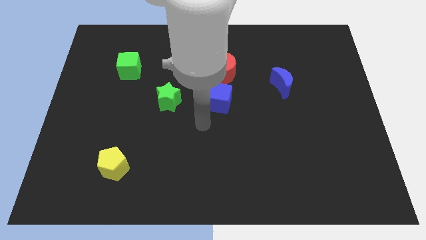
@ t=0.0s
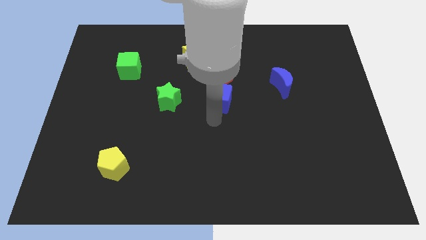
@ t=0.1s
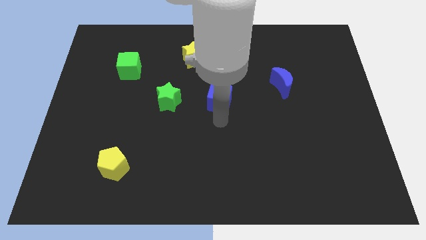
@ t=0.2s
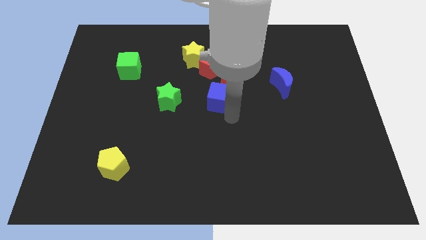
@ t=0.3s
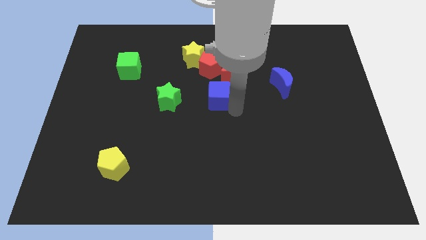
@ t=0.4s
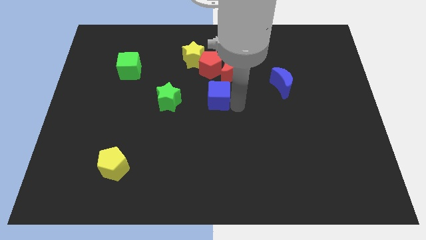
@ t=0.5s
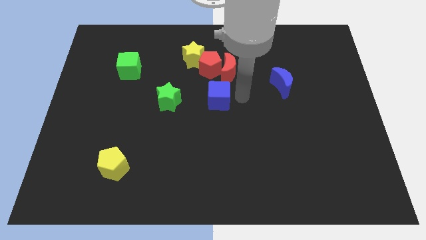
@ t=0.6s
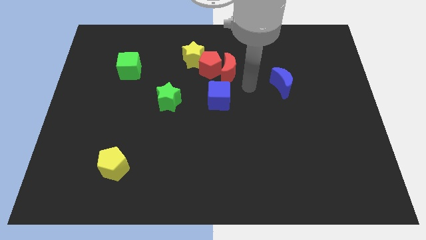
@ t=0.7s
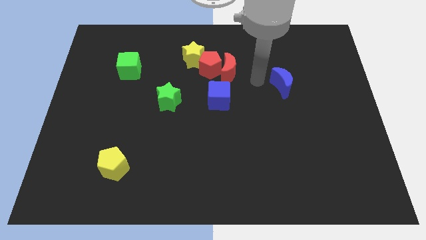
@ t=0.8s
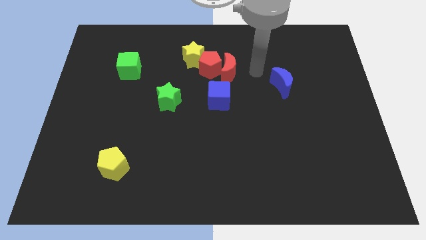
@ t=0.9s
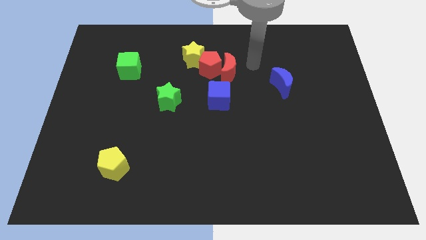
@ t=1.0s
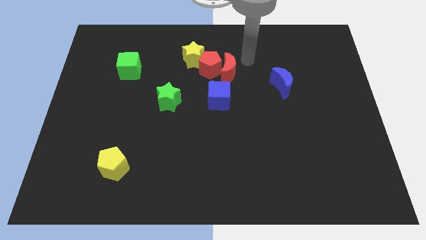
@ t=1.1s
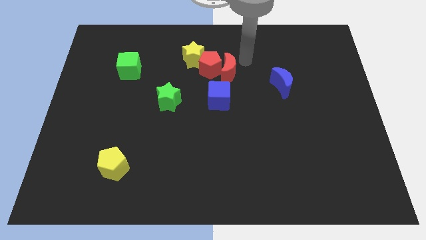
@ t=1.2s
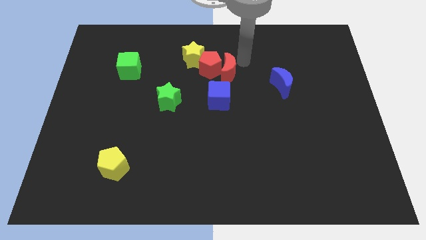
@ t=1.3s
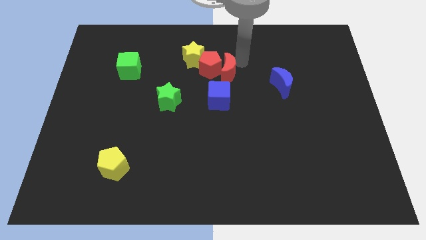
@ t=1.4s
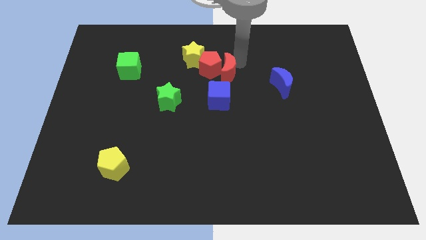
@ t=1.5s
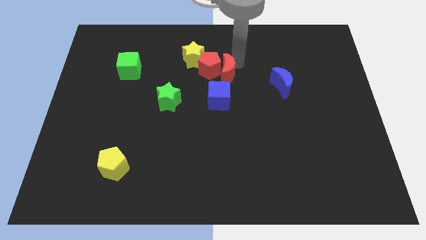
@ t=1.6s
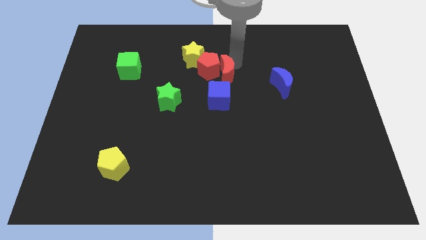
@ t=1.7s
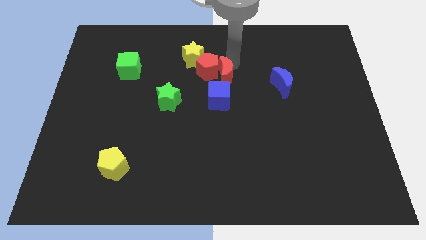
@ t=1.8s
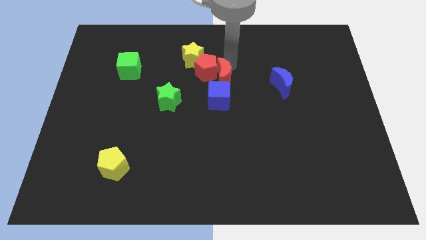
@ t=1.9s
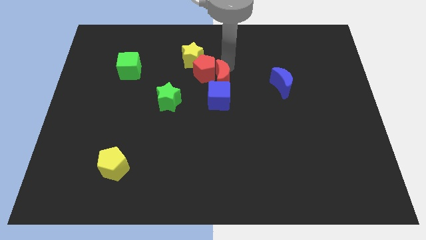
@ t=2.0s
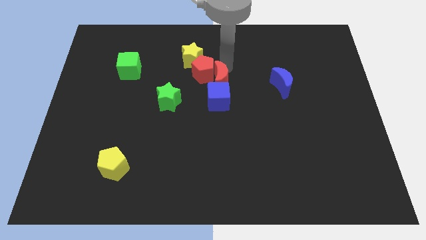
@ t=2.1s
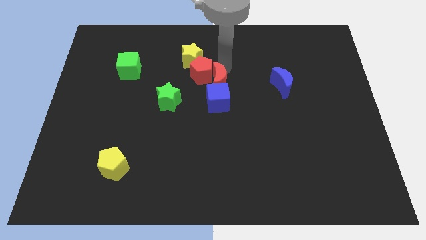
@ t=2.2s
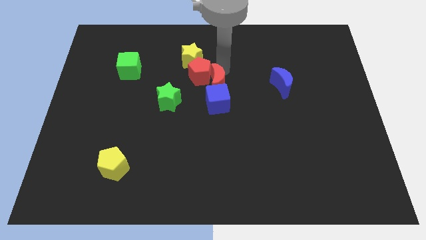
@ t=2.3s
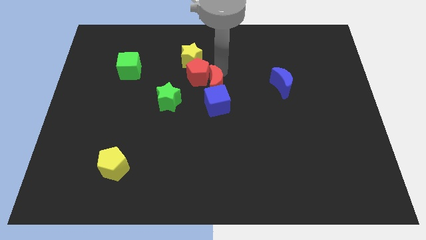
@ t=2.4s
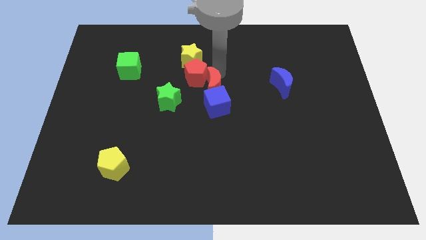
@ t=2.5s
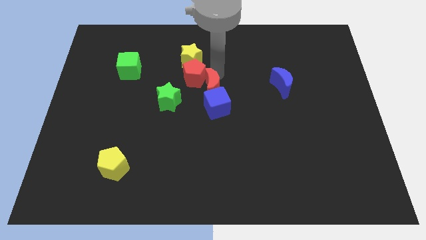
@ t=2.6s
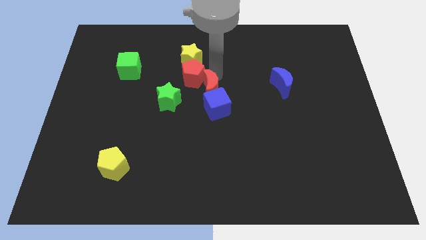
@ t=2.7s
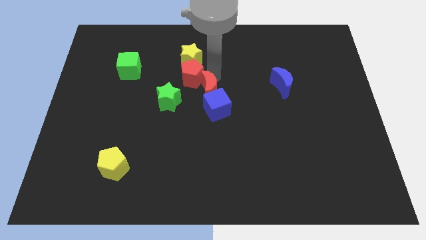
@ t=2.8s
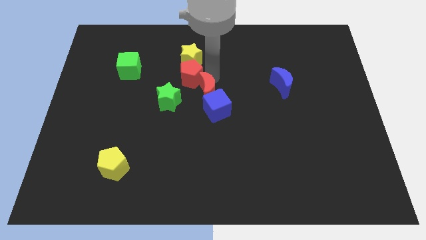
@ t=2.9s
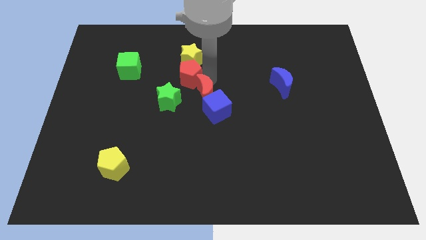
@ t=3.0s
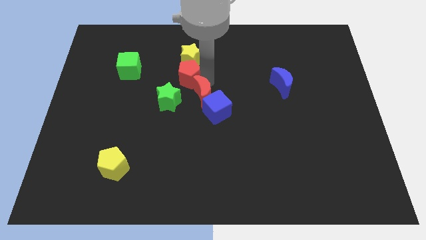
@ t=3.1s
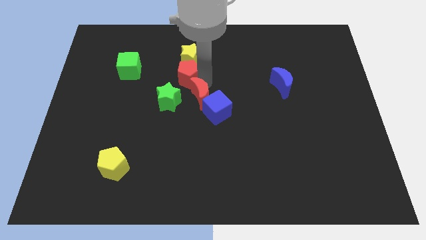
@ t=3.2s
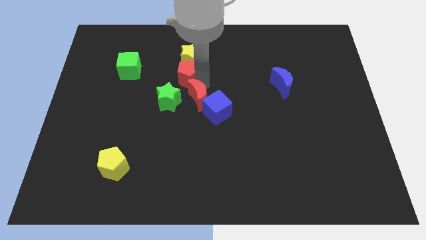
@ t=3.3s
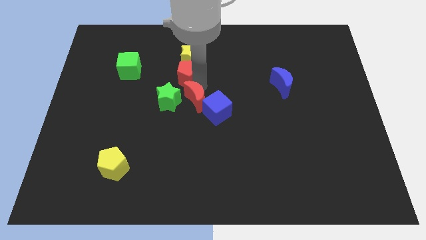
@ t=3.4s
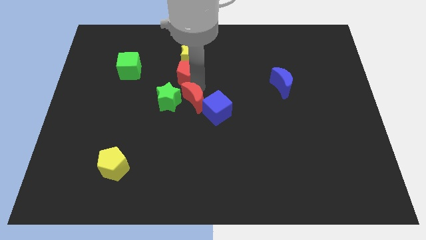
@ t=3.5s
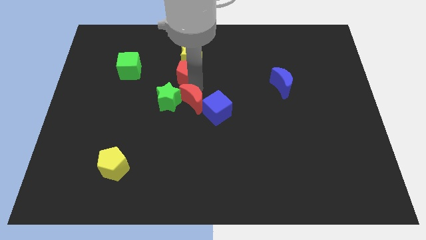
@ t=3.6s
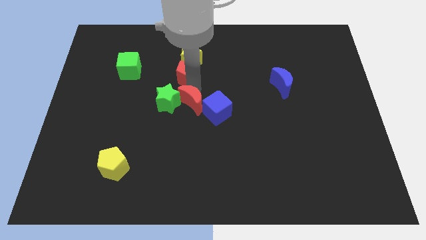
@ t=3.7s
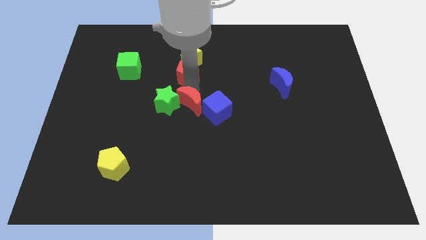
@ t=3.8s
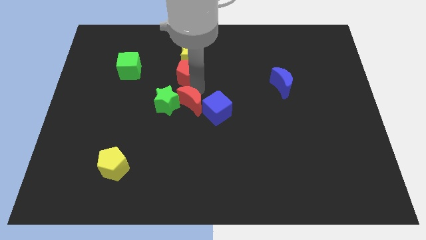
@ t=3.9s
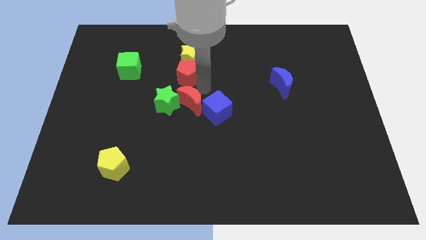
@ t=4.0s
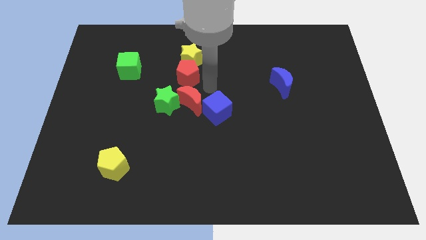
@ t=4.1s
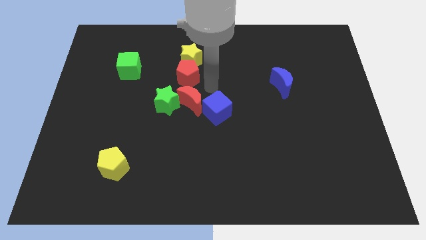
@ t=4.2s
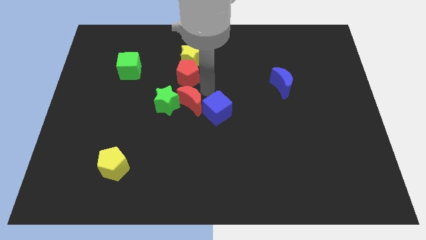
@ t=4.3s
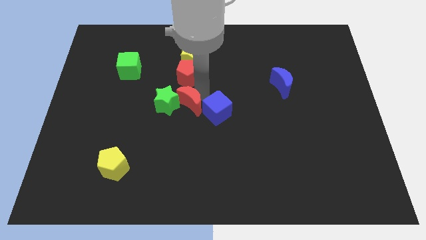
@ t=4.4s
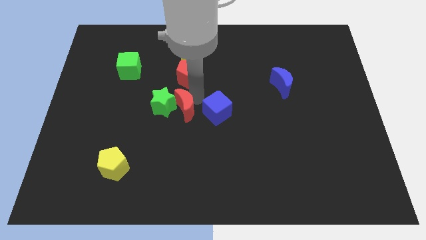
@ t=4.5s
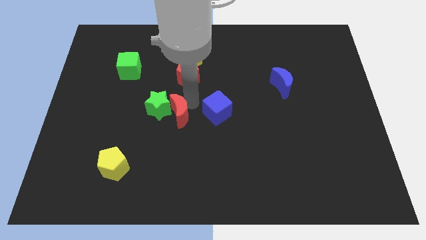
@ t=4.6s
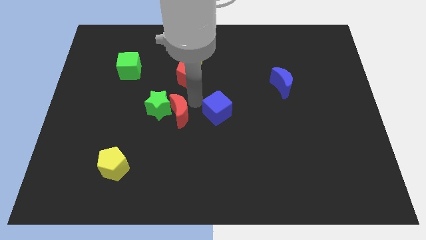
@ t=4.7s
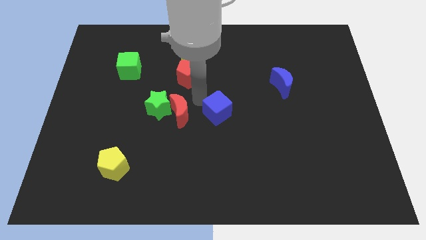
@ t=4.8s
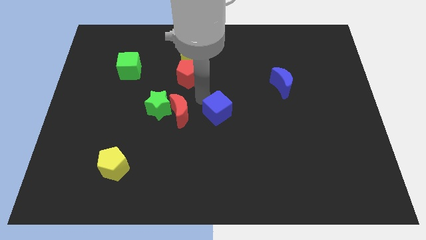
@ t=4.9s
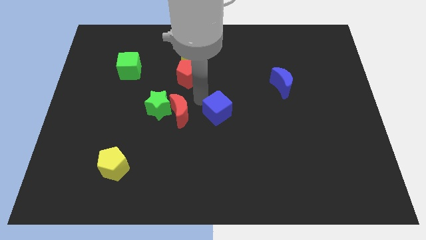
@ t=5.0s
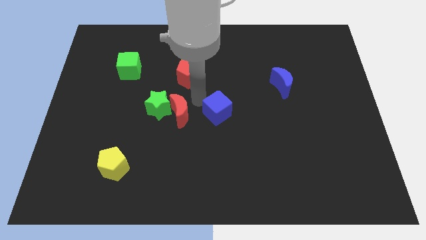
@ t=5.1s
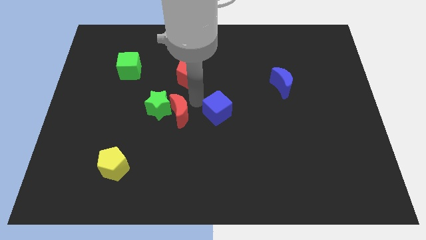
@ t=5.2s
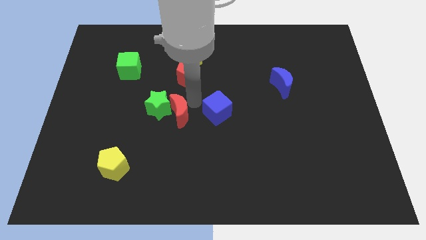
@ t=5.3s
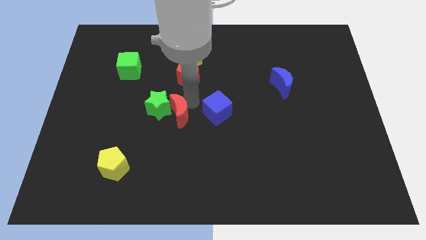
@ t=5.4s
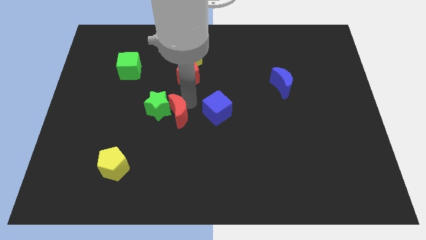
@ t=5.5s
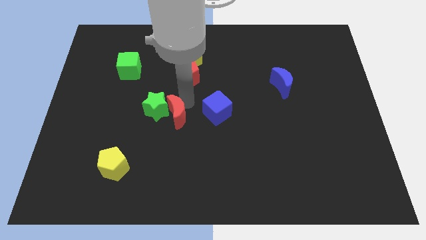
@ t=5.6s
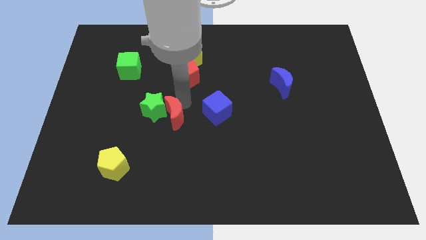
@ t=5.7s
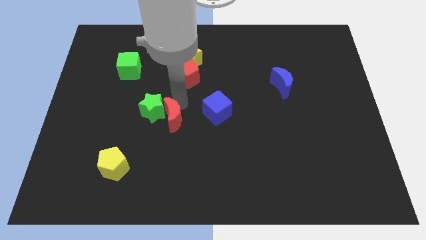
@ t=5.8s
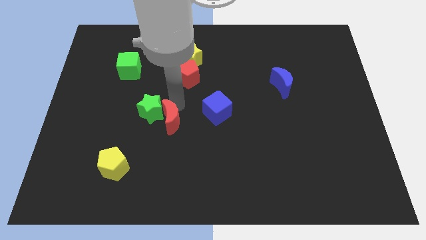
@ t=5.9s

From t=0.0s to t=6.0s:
slide the red moon down and left

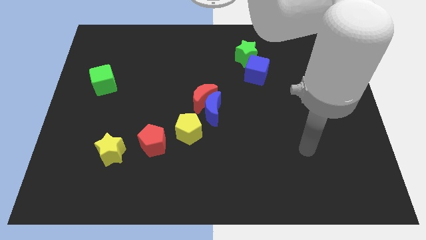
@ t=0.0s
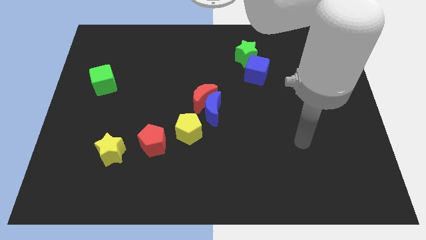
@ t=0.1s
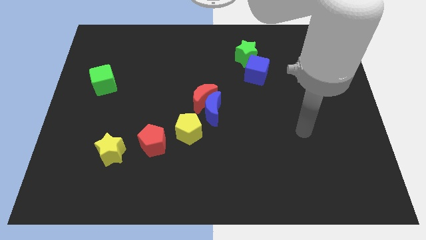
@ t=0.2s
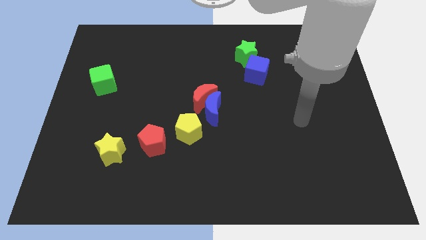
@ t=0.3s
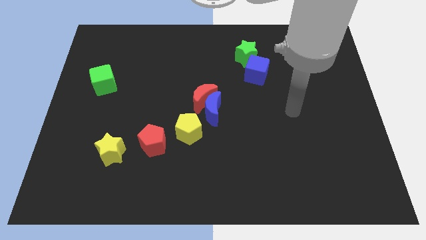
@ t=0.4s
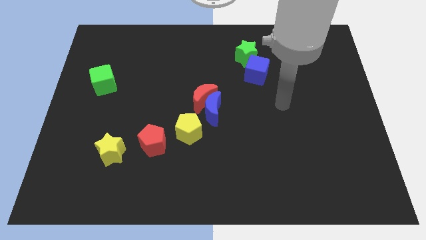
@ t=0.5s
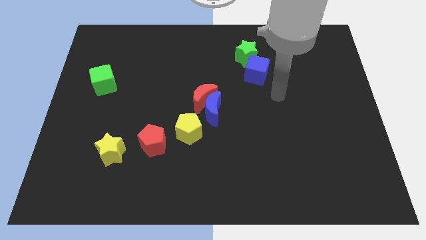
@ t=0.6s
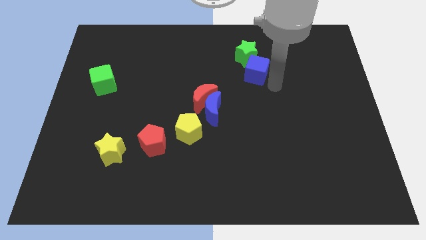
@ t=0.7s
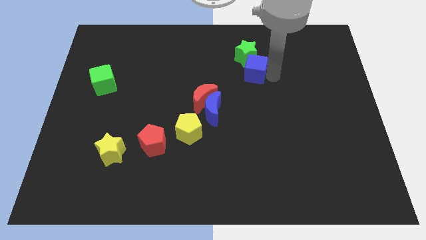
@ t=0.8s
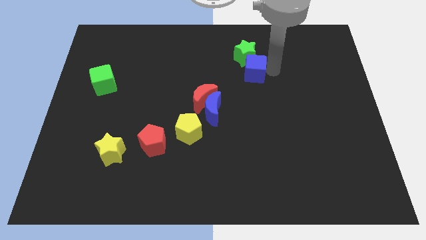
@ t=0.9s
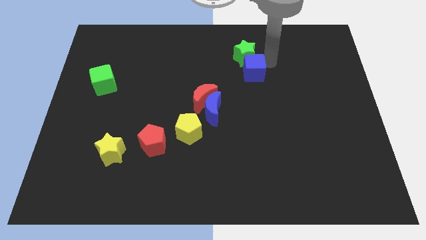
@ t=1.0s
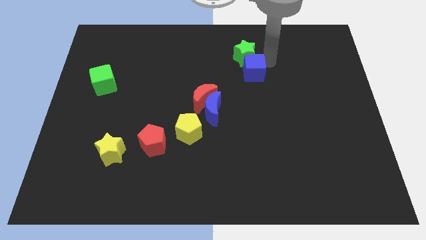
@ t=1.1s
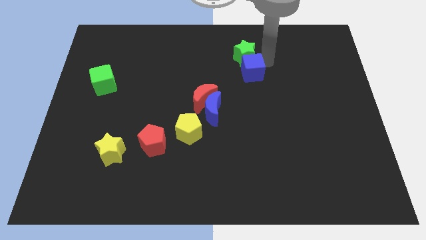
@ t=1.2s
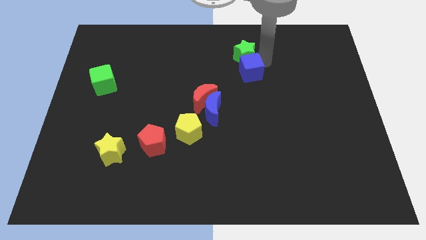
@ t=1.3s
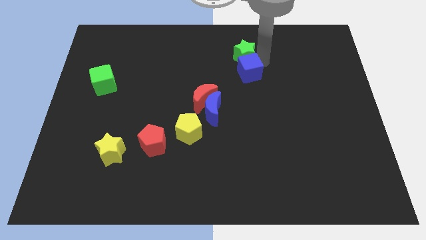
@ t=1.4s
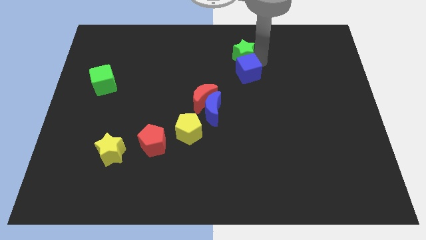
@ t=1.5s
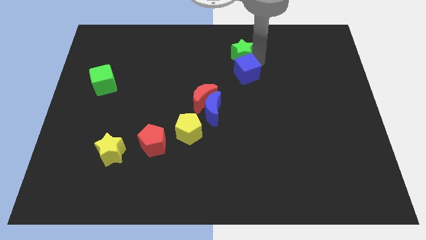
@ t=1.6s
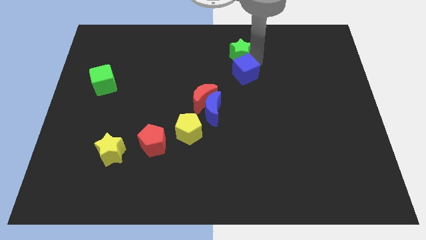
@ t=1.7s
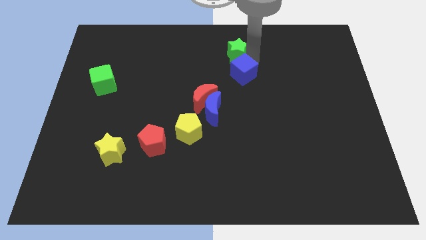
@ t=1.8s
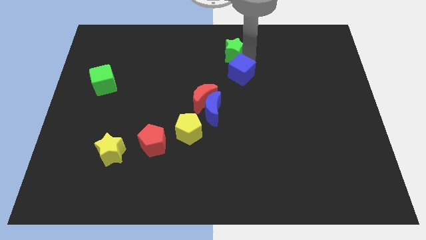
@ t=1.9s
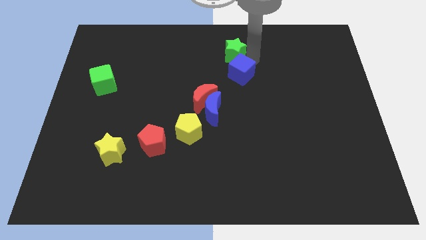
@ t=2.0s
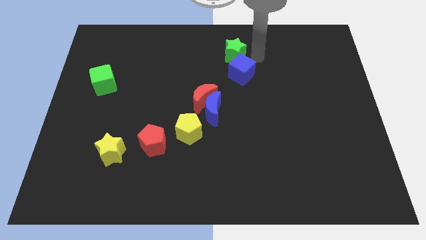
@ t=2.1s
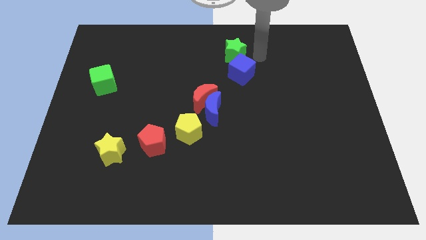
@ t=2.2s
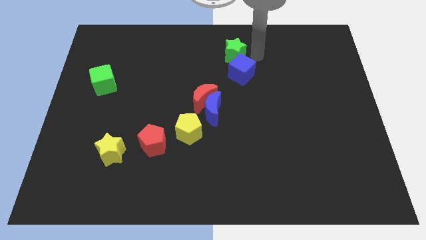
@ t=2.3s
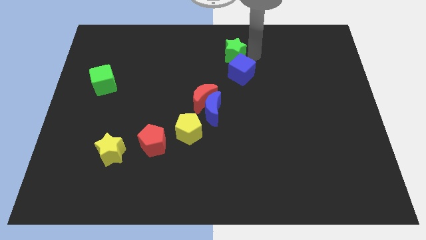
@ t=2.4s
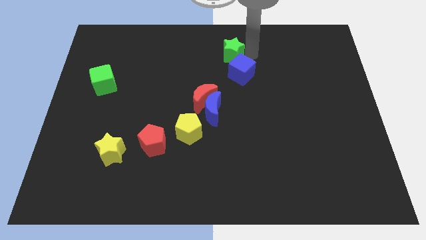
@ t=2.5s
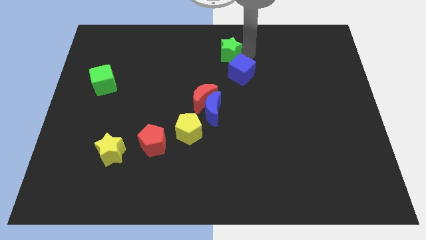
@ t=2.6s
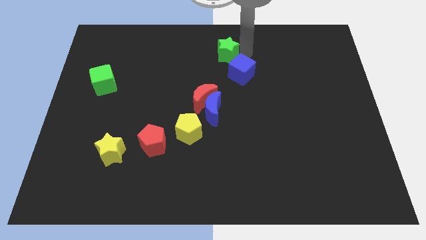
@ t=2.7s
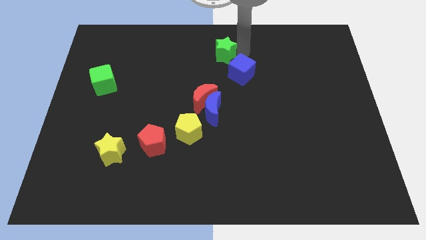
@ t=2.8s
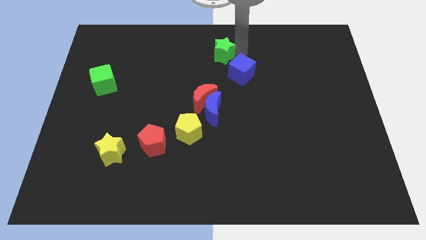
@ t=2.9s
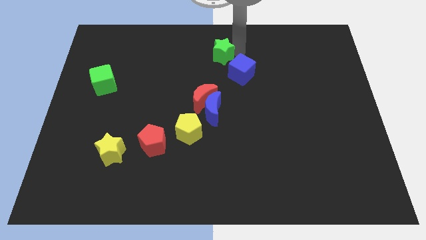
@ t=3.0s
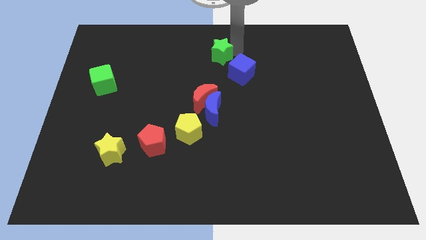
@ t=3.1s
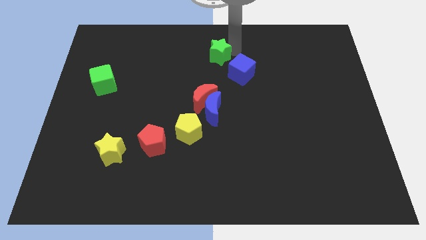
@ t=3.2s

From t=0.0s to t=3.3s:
slide the green star somewhat to the left
